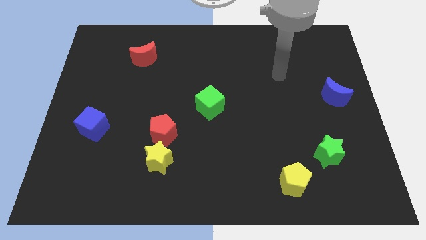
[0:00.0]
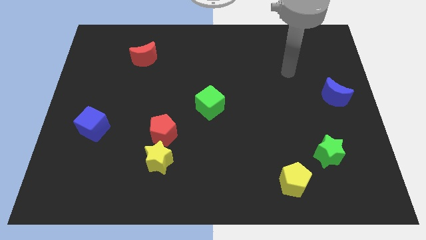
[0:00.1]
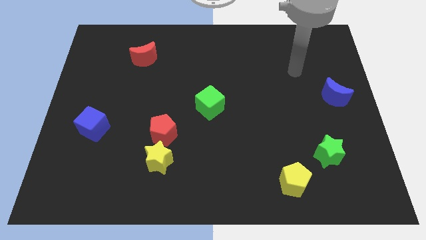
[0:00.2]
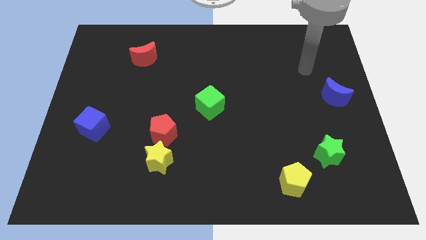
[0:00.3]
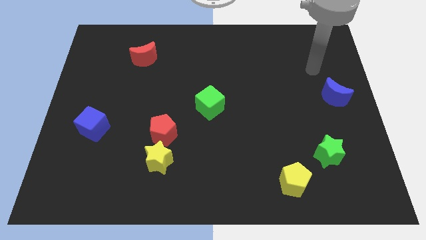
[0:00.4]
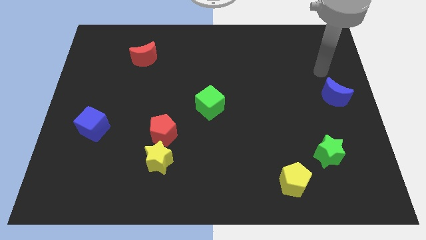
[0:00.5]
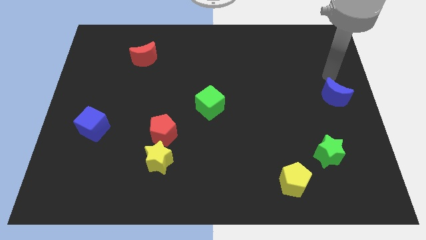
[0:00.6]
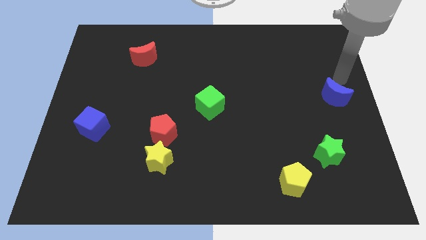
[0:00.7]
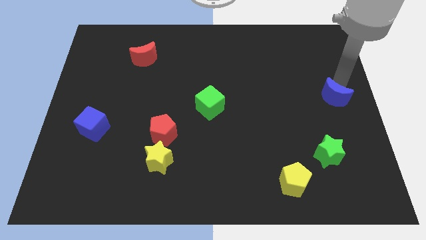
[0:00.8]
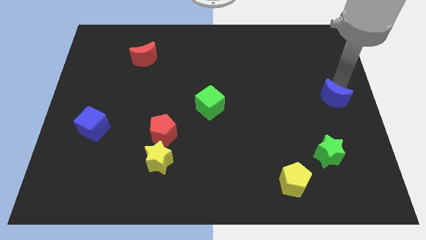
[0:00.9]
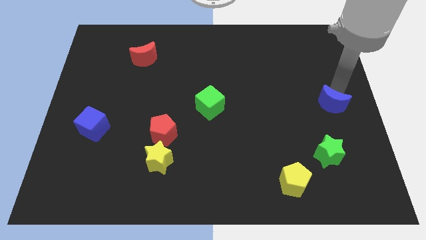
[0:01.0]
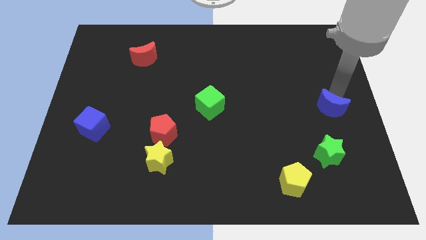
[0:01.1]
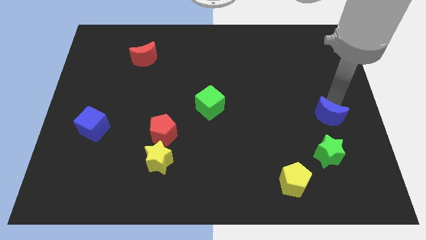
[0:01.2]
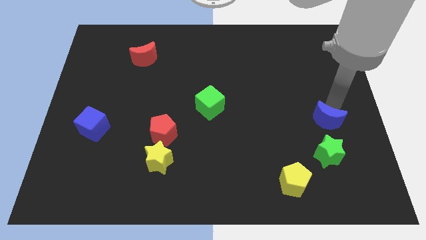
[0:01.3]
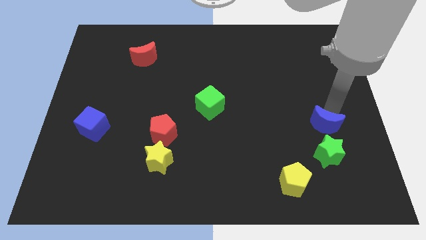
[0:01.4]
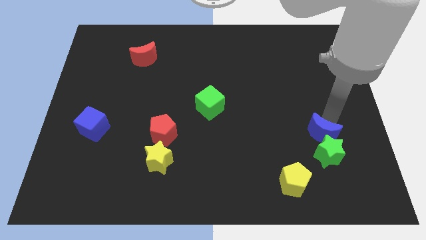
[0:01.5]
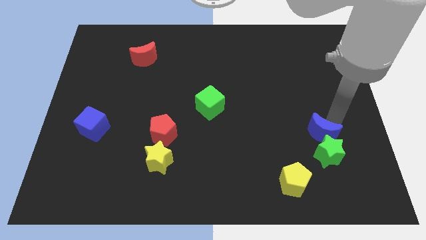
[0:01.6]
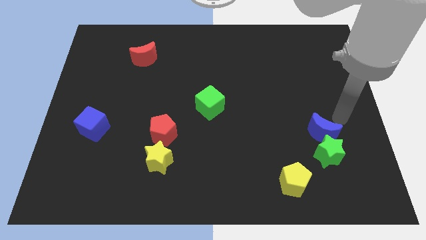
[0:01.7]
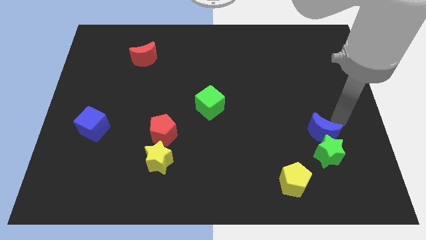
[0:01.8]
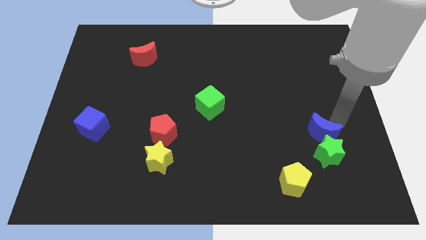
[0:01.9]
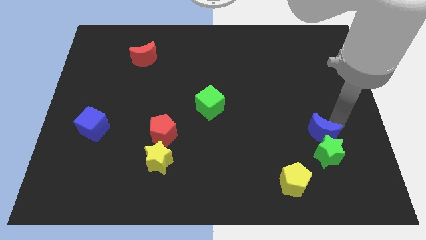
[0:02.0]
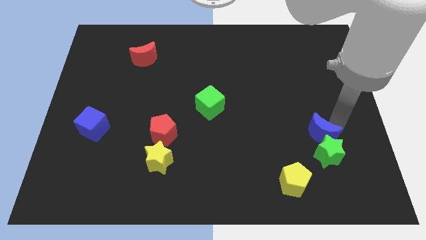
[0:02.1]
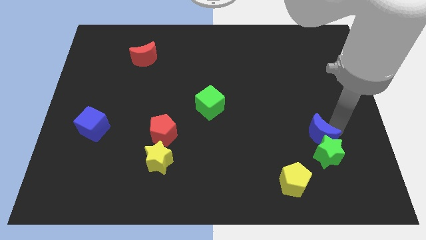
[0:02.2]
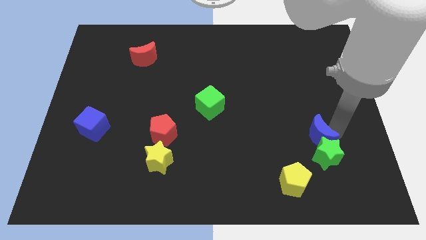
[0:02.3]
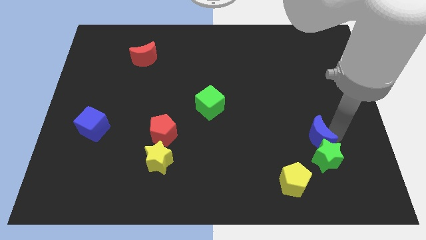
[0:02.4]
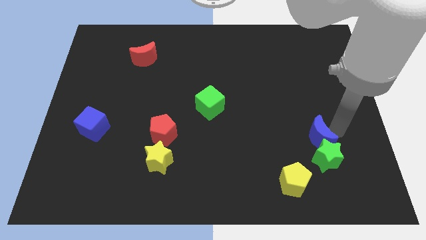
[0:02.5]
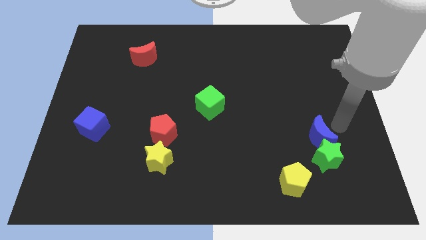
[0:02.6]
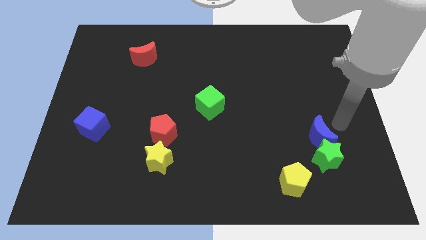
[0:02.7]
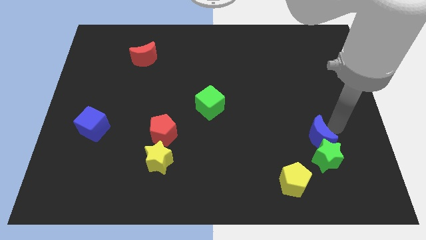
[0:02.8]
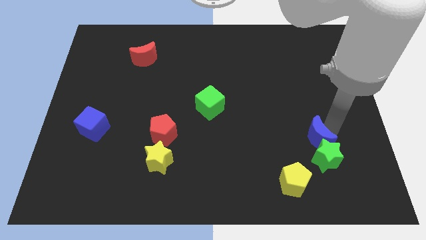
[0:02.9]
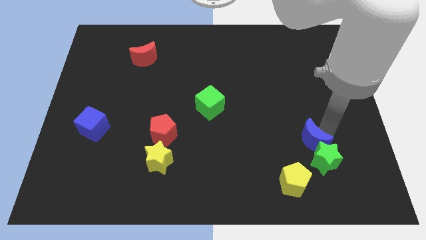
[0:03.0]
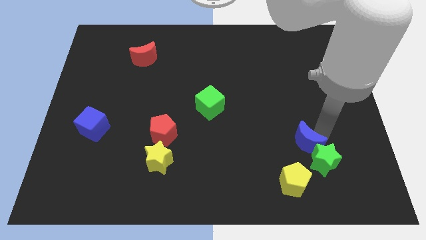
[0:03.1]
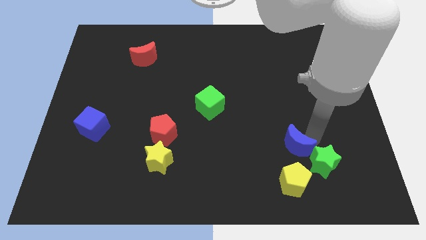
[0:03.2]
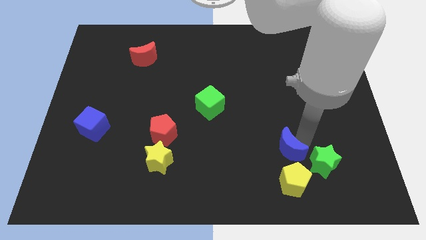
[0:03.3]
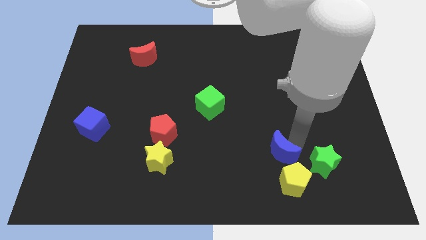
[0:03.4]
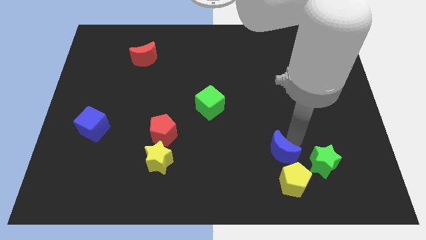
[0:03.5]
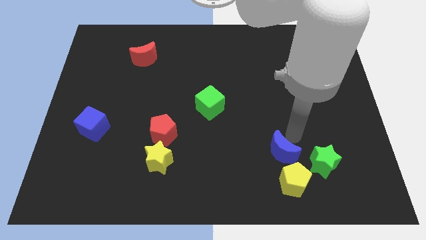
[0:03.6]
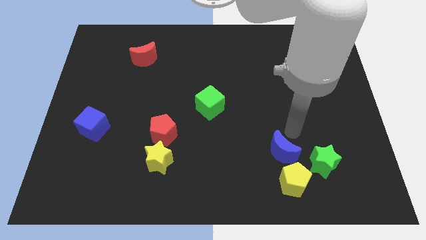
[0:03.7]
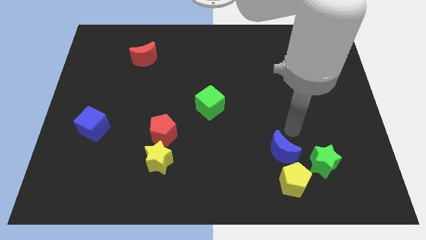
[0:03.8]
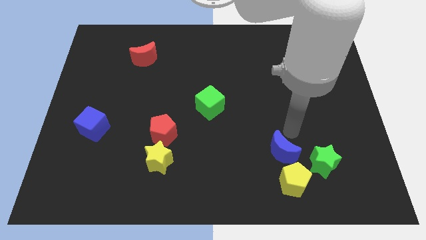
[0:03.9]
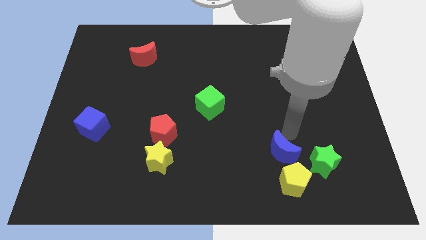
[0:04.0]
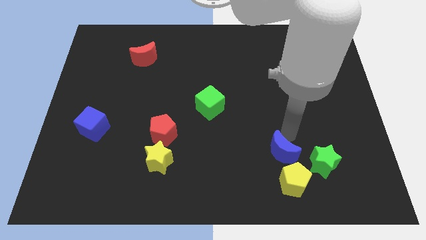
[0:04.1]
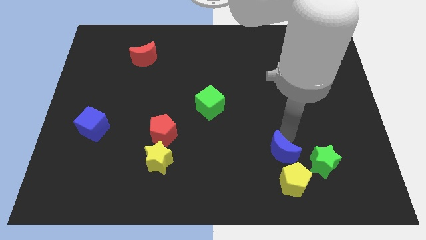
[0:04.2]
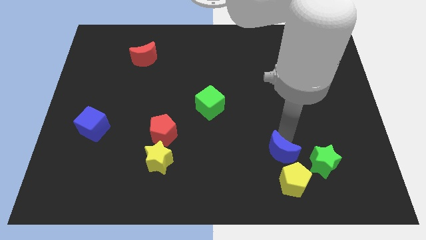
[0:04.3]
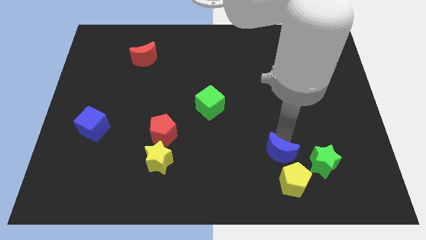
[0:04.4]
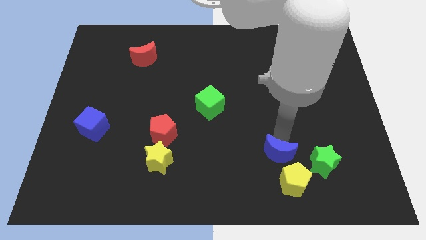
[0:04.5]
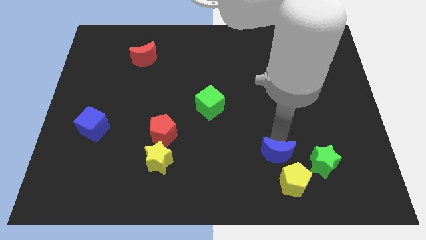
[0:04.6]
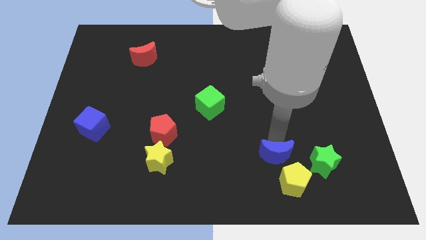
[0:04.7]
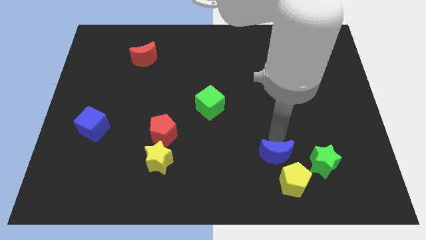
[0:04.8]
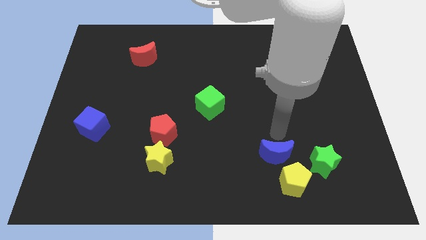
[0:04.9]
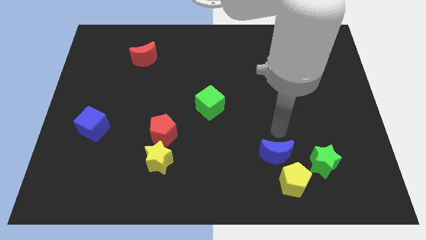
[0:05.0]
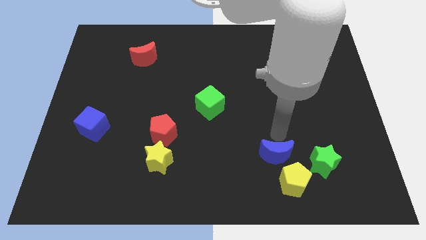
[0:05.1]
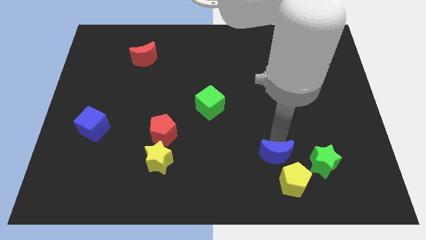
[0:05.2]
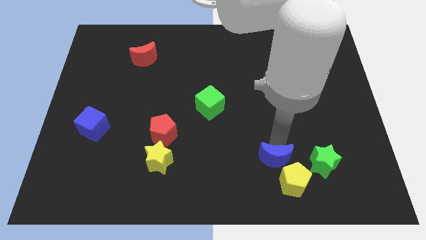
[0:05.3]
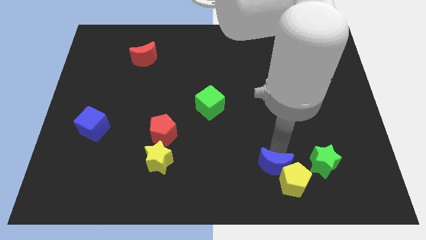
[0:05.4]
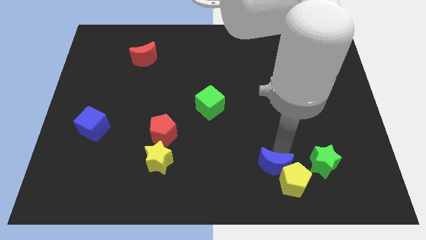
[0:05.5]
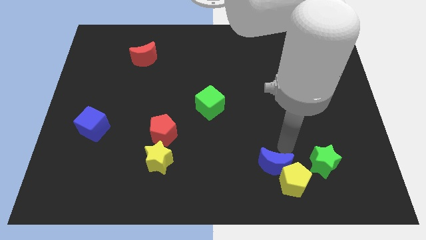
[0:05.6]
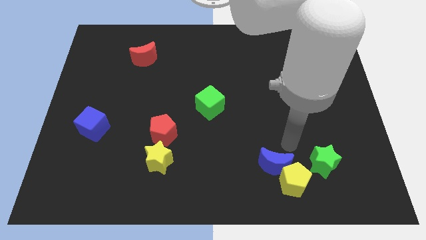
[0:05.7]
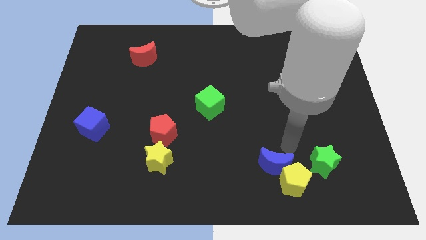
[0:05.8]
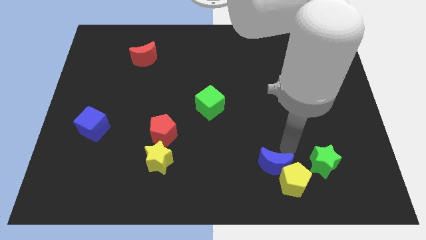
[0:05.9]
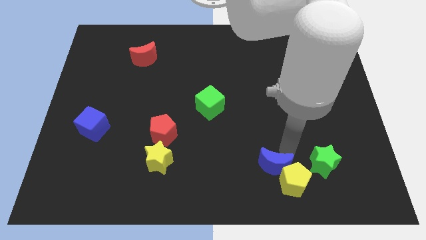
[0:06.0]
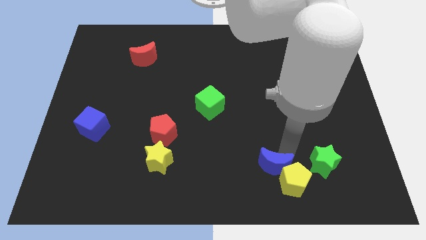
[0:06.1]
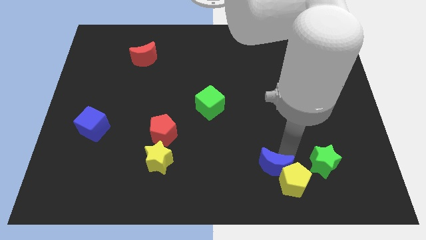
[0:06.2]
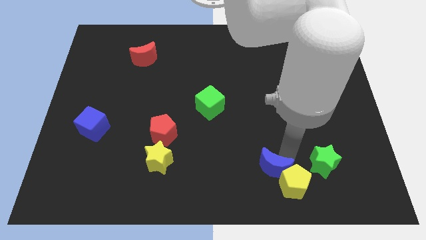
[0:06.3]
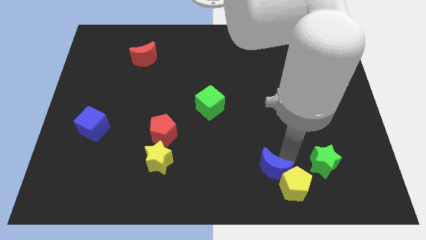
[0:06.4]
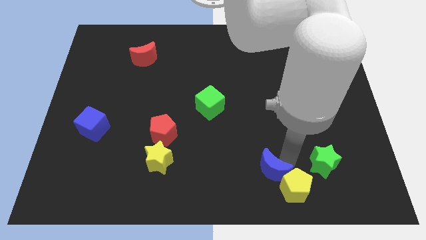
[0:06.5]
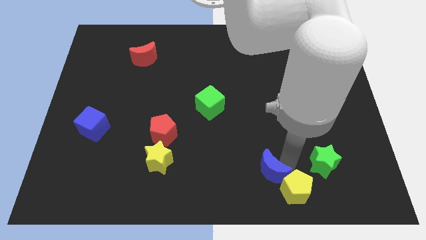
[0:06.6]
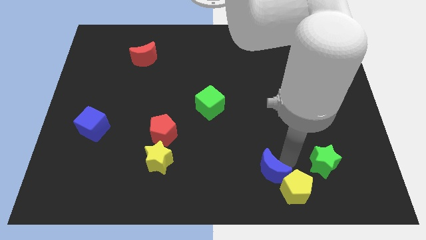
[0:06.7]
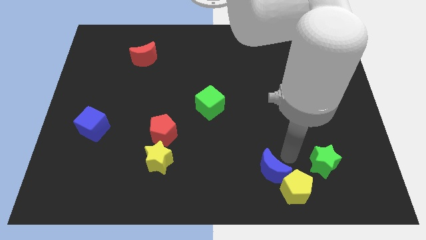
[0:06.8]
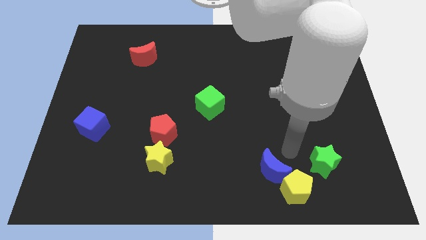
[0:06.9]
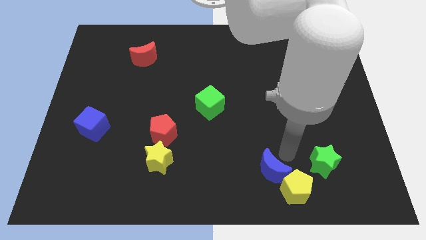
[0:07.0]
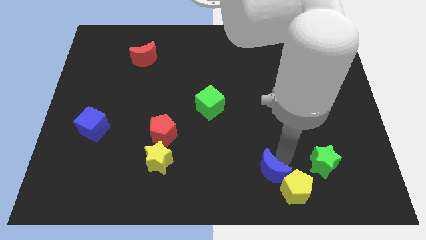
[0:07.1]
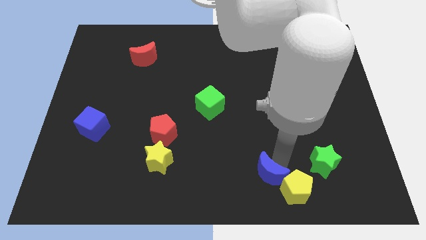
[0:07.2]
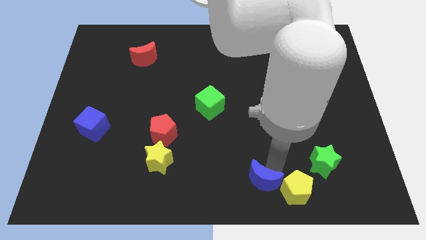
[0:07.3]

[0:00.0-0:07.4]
move the blue moon to the bottom side
